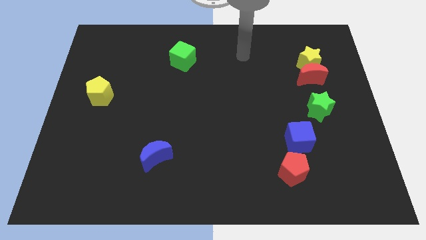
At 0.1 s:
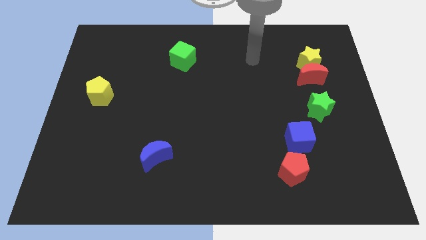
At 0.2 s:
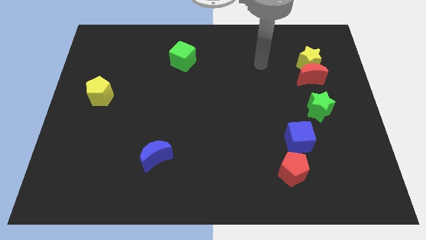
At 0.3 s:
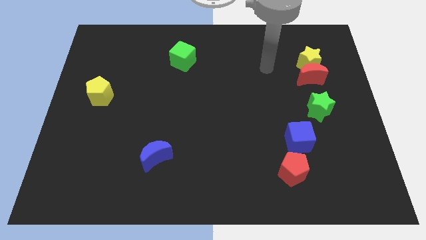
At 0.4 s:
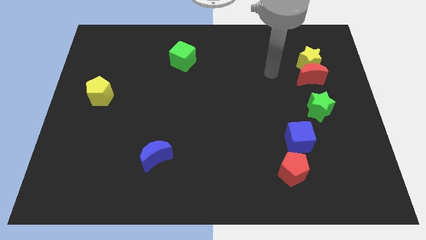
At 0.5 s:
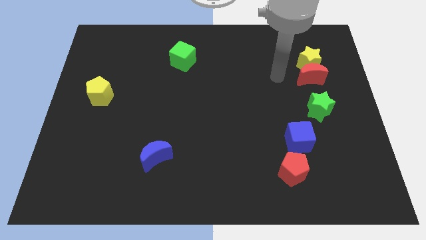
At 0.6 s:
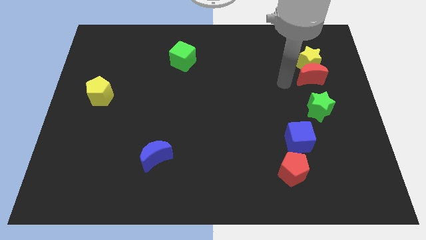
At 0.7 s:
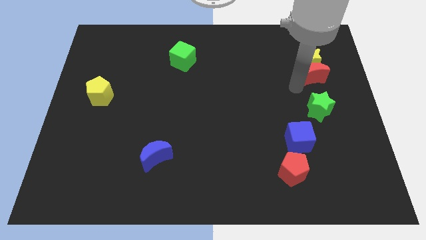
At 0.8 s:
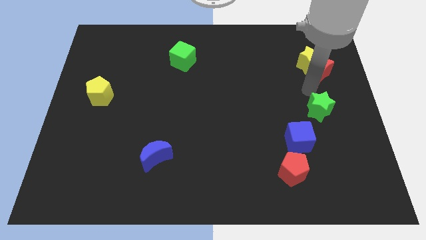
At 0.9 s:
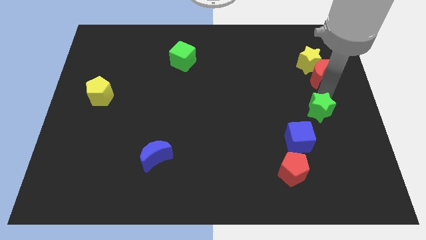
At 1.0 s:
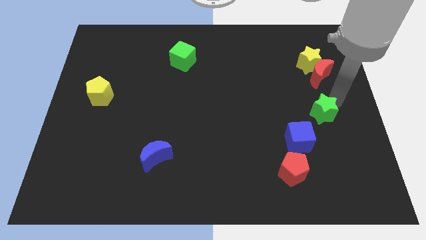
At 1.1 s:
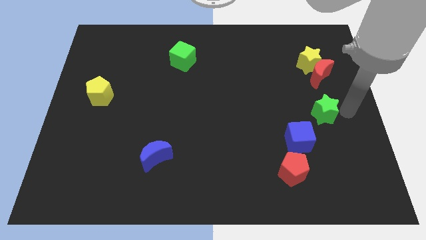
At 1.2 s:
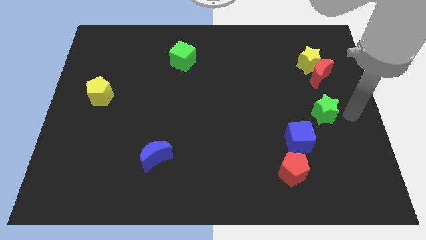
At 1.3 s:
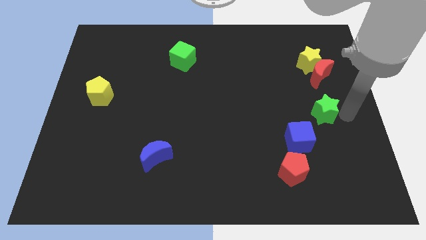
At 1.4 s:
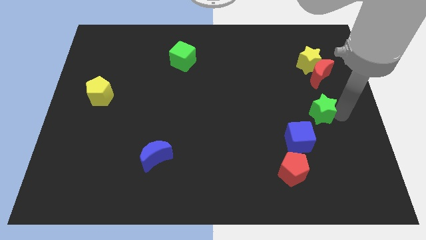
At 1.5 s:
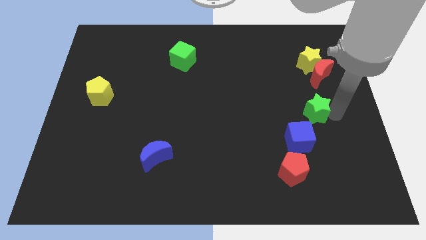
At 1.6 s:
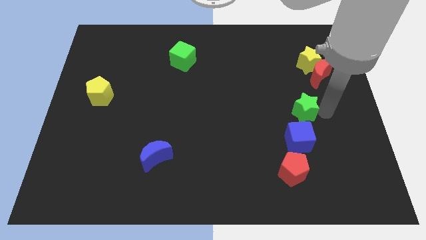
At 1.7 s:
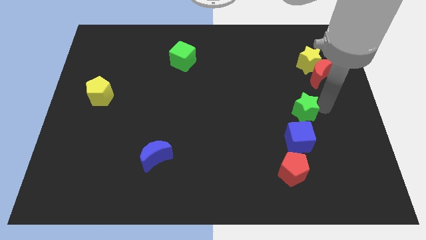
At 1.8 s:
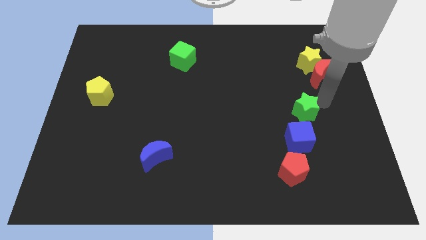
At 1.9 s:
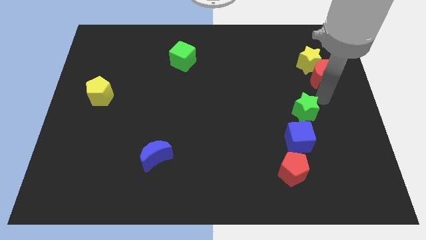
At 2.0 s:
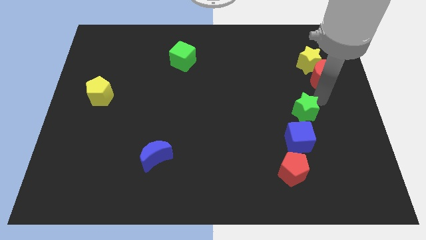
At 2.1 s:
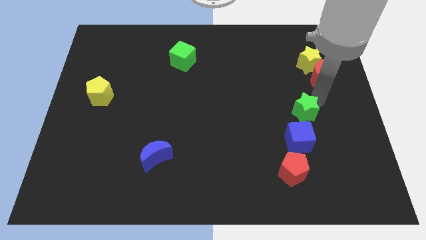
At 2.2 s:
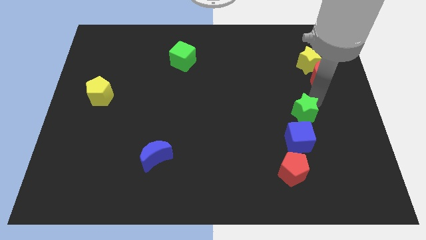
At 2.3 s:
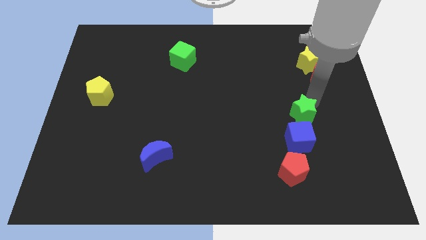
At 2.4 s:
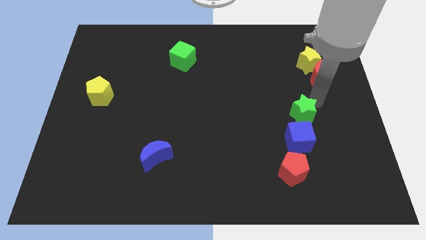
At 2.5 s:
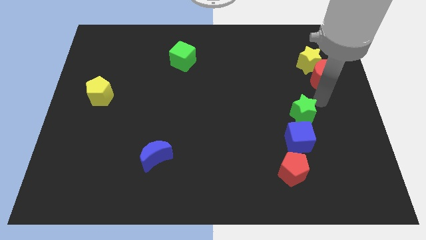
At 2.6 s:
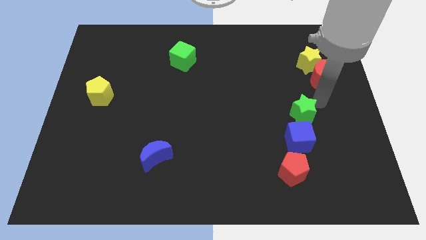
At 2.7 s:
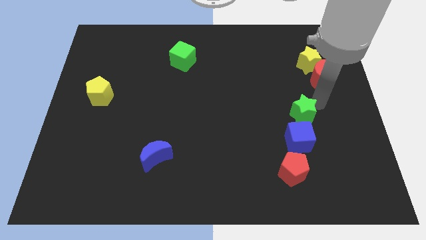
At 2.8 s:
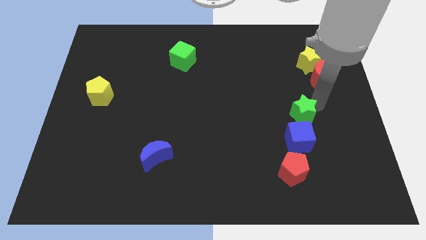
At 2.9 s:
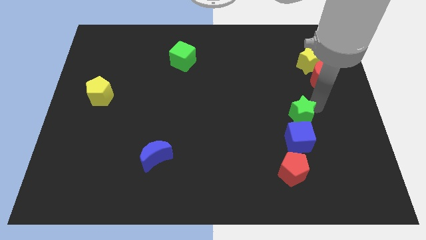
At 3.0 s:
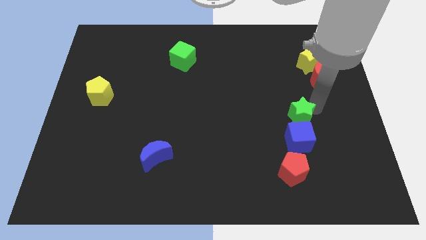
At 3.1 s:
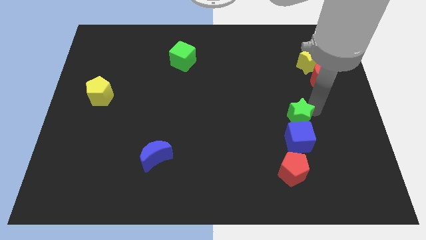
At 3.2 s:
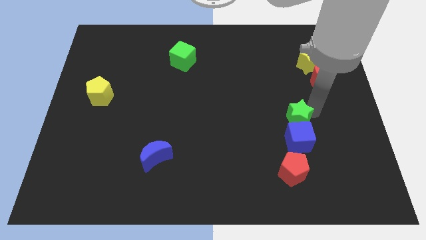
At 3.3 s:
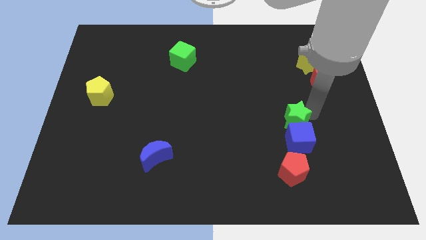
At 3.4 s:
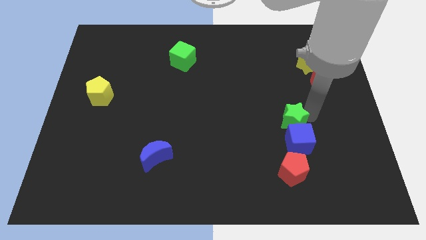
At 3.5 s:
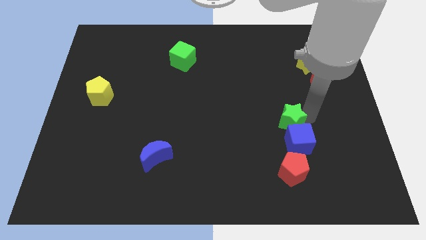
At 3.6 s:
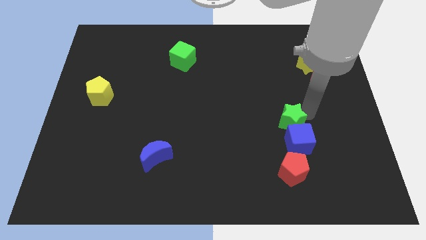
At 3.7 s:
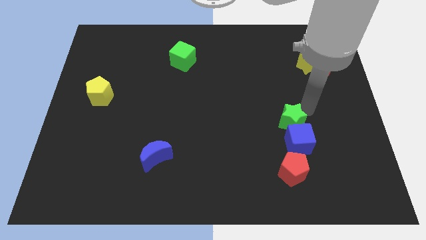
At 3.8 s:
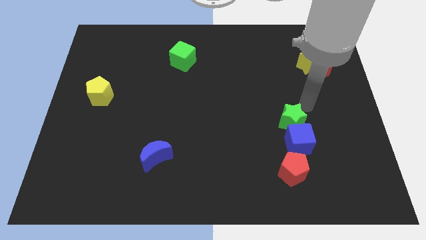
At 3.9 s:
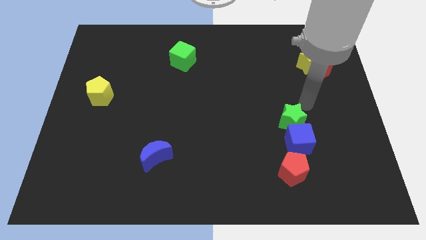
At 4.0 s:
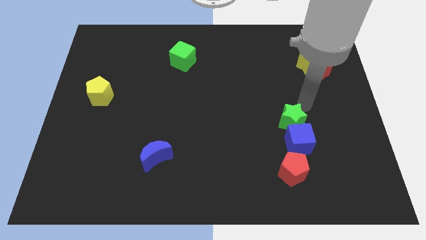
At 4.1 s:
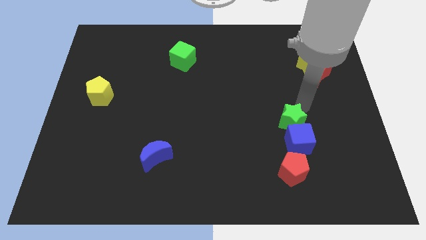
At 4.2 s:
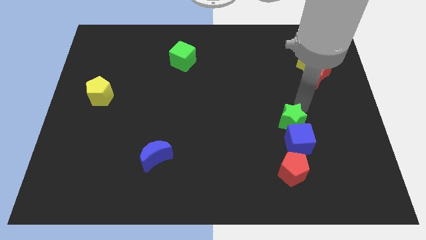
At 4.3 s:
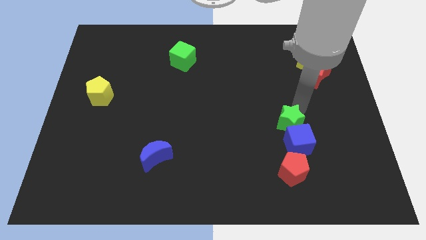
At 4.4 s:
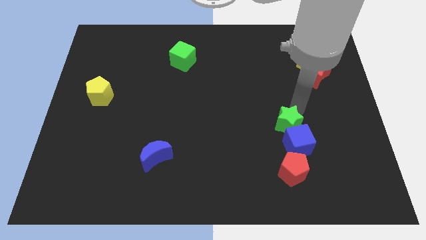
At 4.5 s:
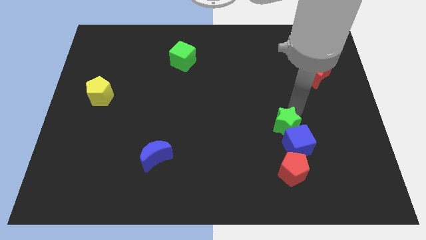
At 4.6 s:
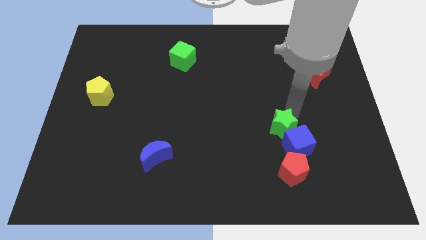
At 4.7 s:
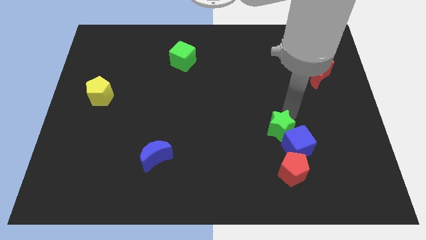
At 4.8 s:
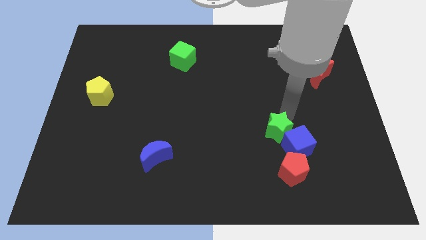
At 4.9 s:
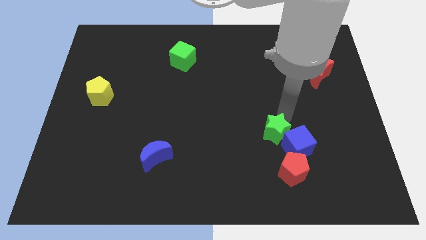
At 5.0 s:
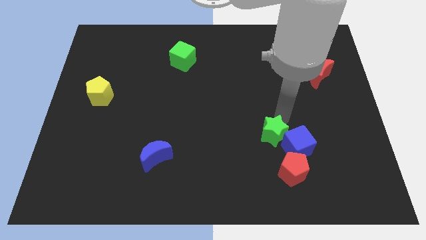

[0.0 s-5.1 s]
put the green star to the top left side of the red pentagon

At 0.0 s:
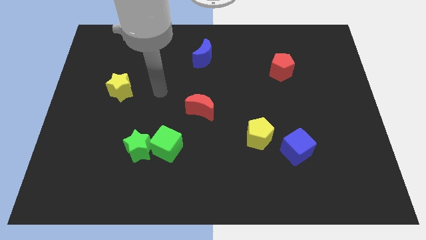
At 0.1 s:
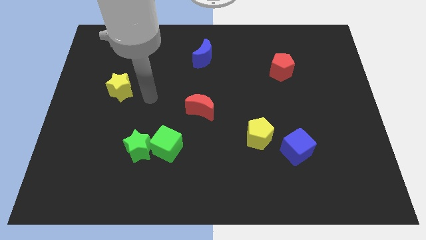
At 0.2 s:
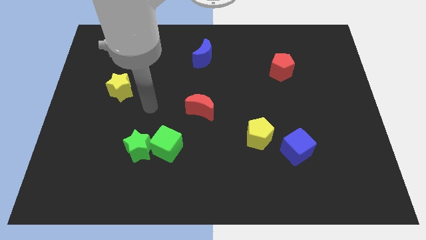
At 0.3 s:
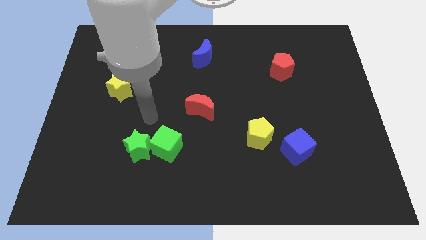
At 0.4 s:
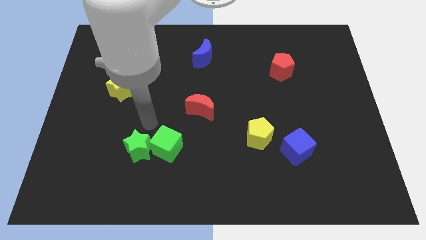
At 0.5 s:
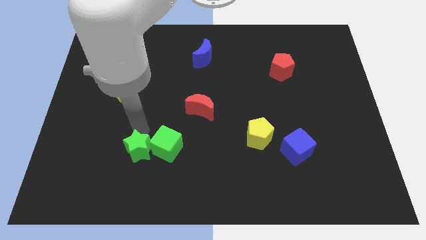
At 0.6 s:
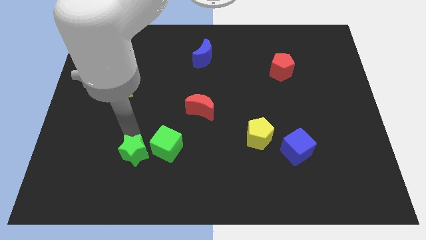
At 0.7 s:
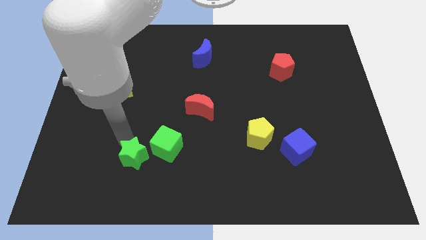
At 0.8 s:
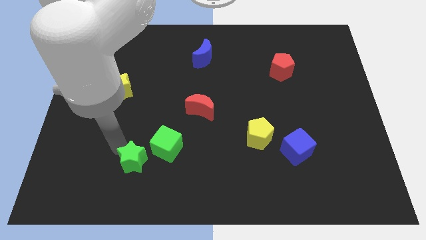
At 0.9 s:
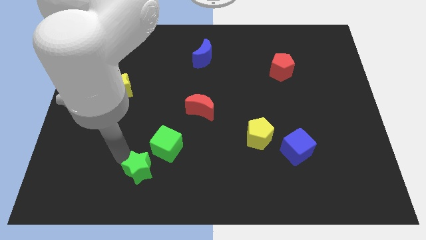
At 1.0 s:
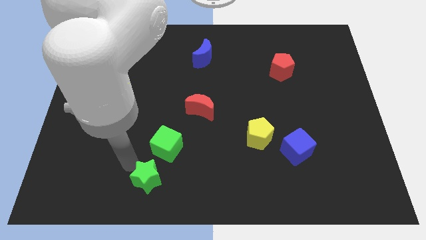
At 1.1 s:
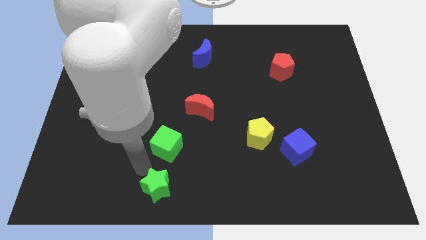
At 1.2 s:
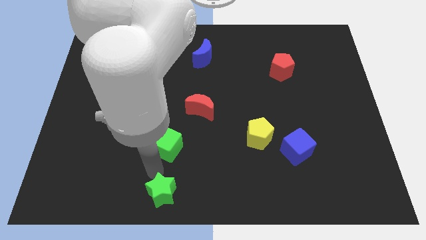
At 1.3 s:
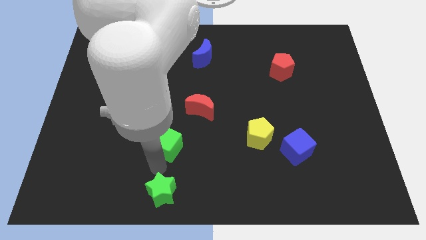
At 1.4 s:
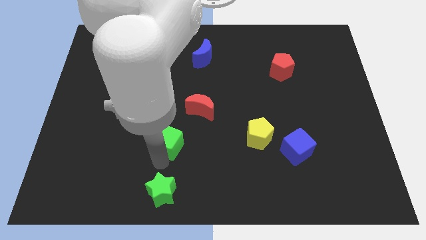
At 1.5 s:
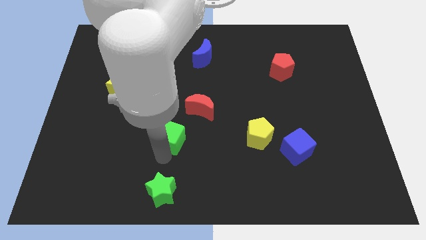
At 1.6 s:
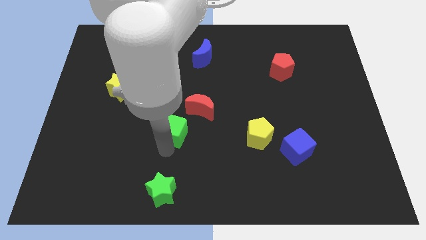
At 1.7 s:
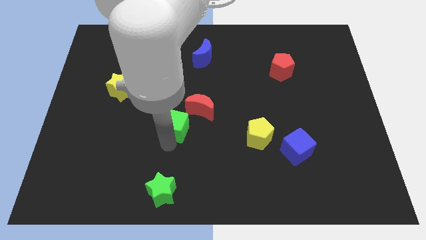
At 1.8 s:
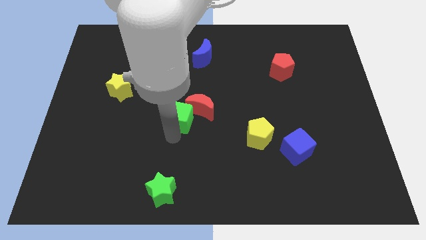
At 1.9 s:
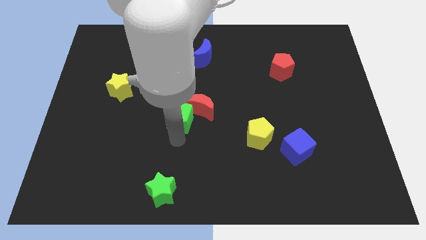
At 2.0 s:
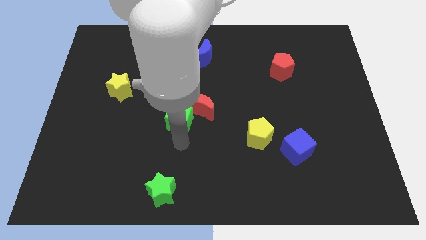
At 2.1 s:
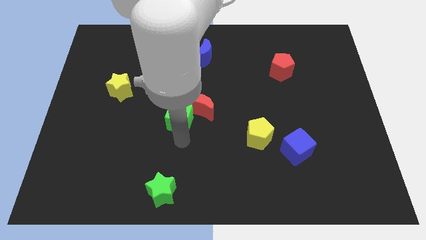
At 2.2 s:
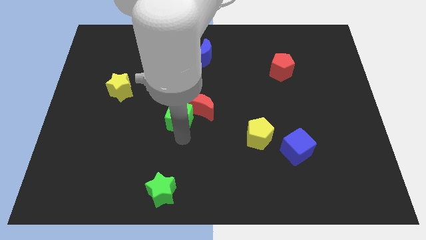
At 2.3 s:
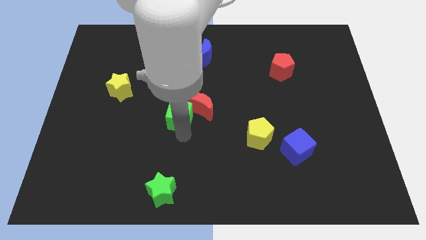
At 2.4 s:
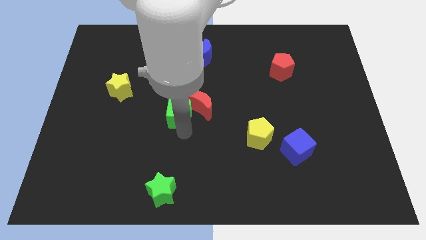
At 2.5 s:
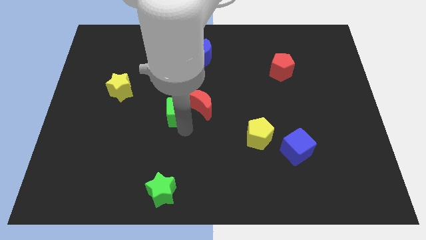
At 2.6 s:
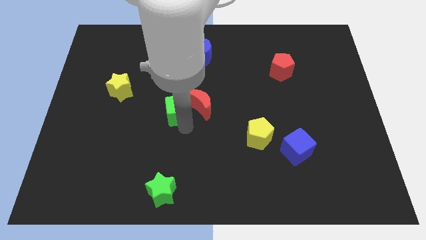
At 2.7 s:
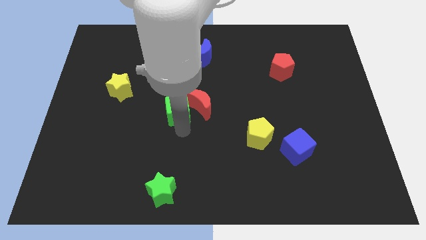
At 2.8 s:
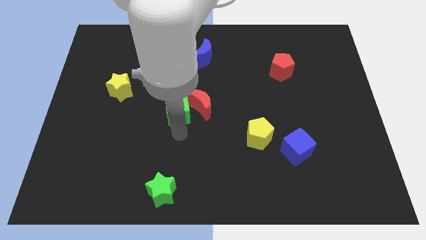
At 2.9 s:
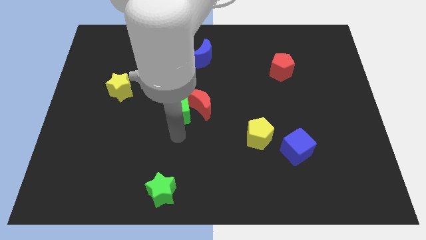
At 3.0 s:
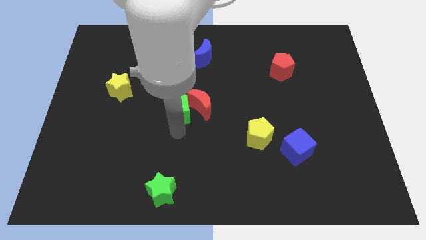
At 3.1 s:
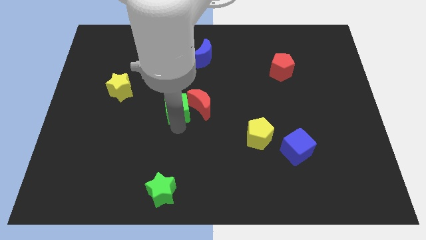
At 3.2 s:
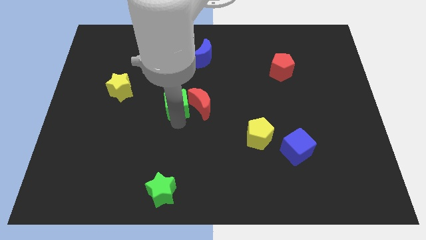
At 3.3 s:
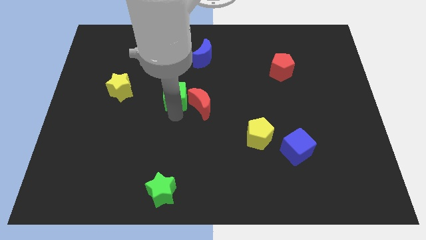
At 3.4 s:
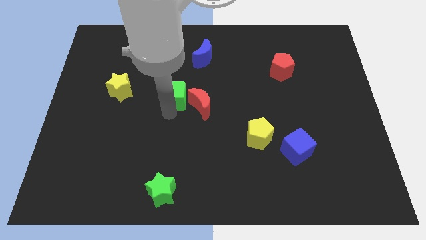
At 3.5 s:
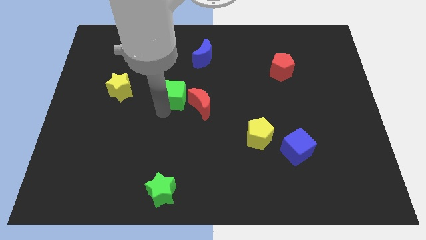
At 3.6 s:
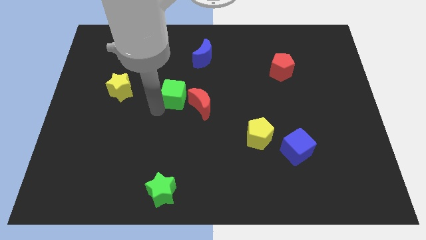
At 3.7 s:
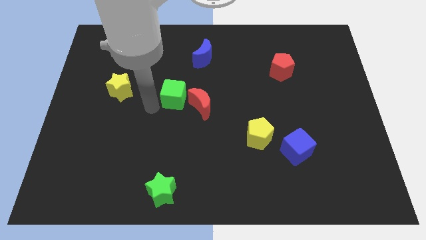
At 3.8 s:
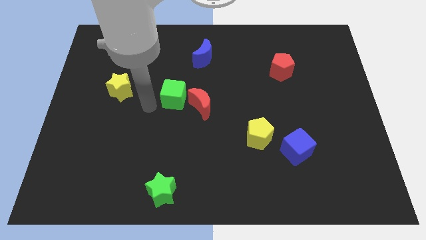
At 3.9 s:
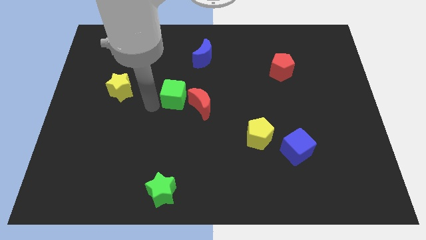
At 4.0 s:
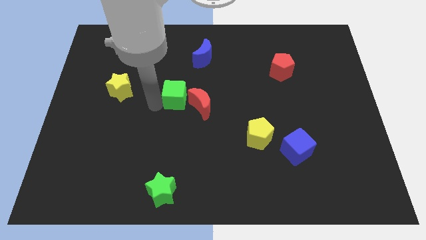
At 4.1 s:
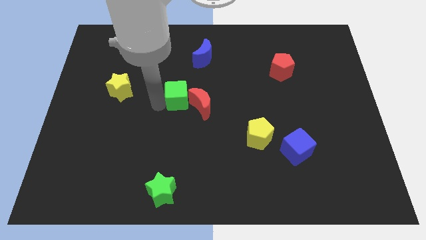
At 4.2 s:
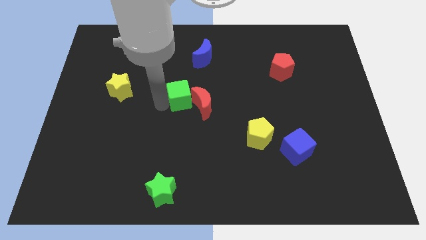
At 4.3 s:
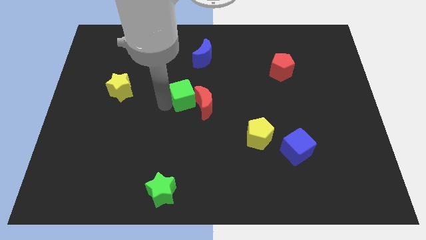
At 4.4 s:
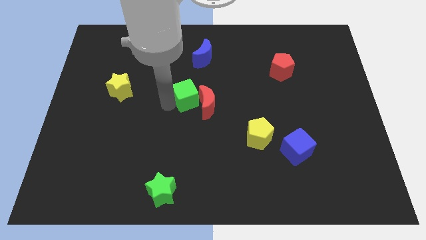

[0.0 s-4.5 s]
put the green cube to the bottom side of the blue moon
